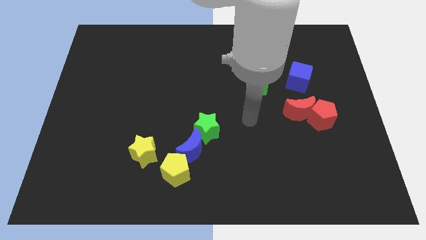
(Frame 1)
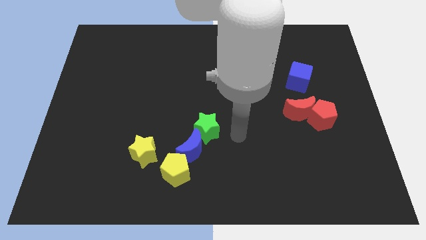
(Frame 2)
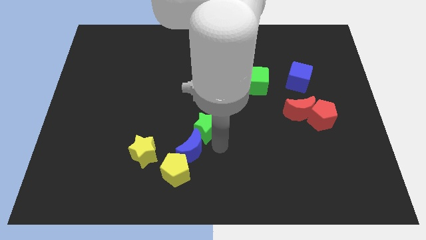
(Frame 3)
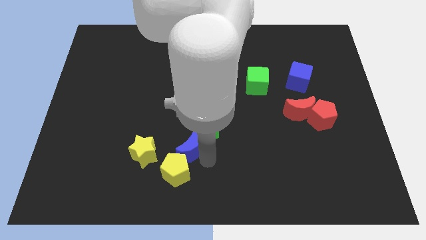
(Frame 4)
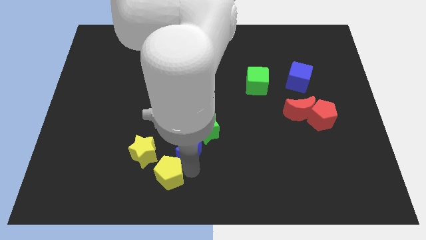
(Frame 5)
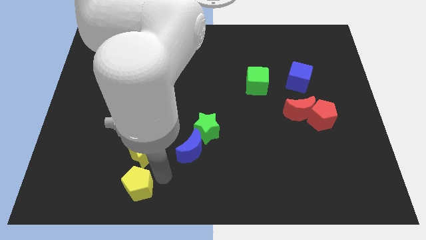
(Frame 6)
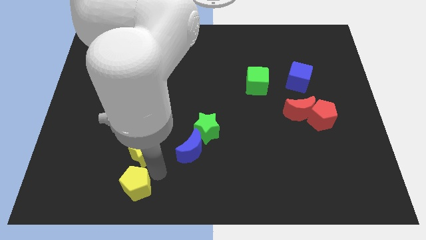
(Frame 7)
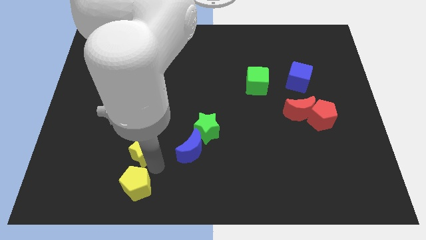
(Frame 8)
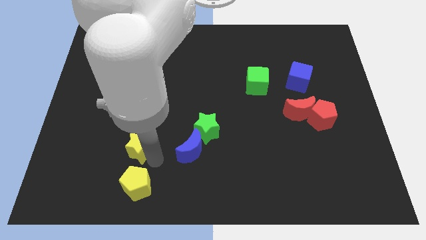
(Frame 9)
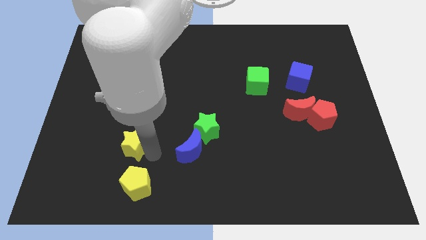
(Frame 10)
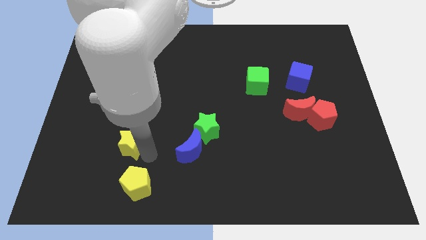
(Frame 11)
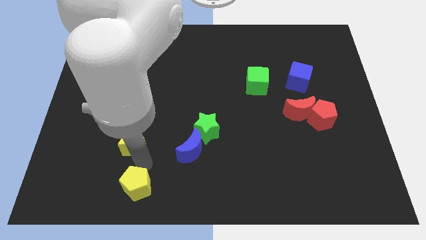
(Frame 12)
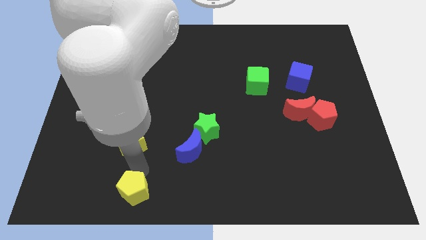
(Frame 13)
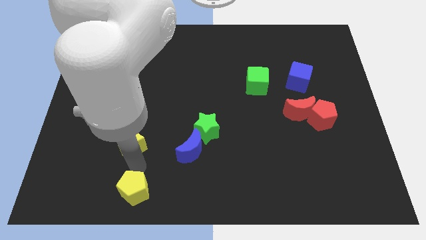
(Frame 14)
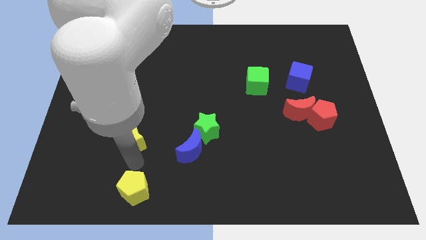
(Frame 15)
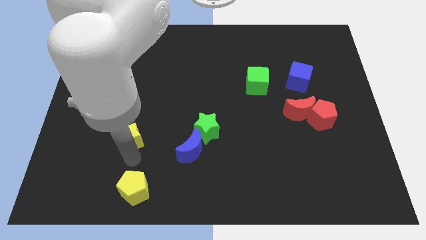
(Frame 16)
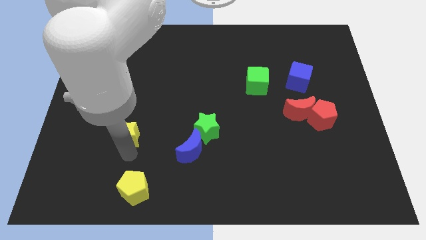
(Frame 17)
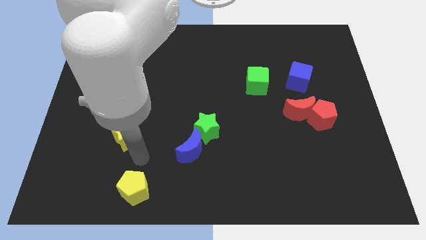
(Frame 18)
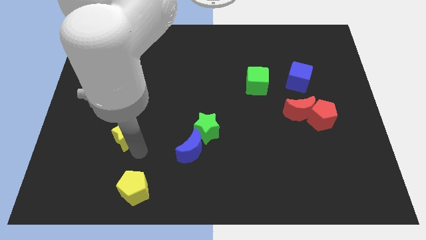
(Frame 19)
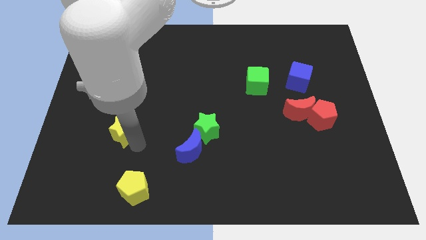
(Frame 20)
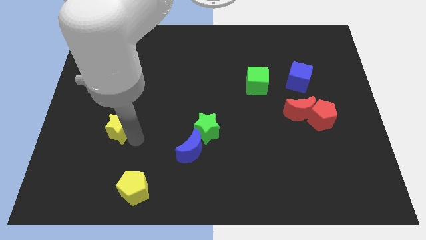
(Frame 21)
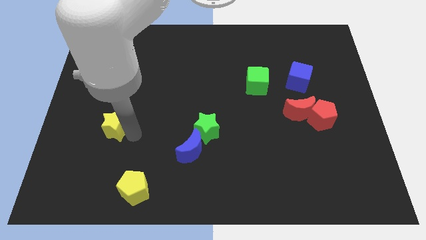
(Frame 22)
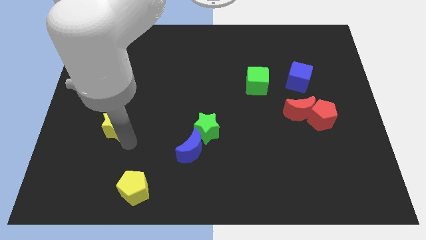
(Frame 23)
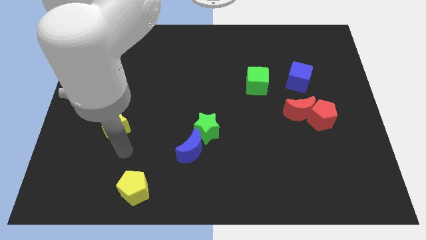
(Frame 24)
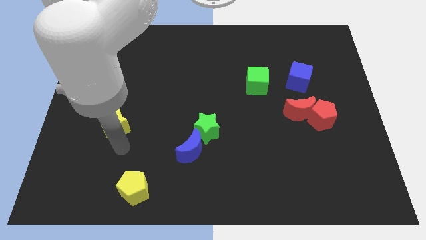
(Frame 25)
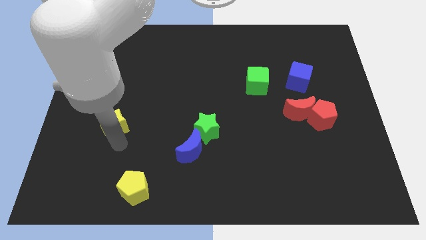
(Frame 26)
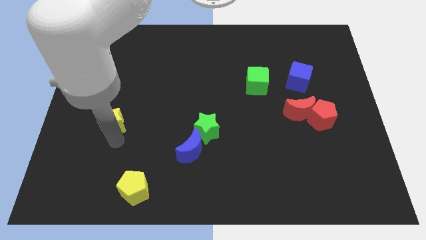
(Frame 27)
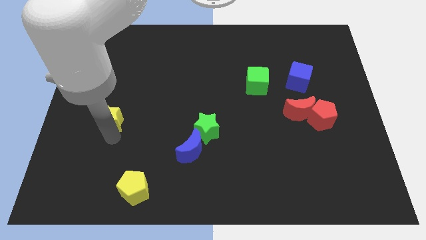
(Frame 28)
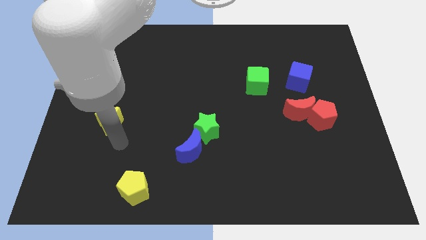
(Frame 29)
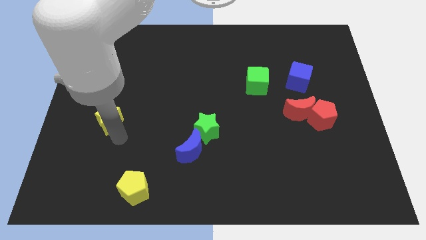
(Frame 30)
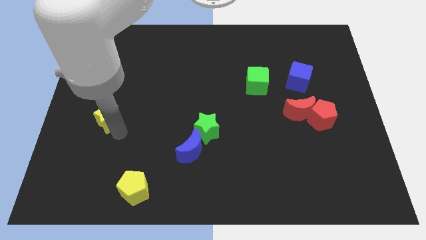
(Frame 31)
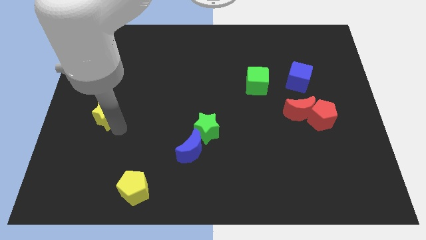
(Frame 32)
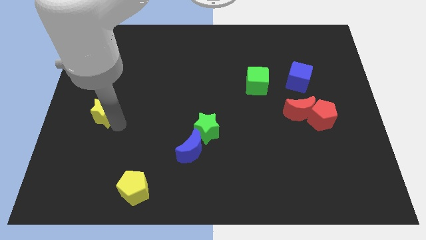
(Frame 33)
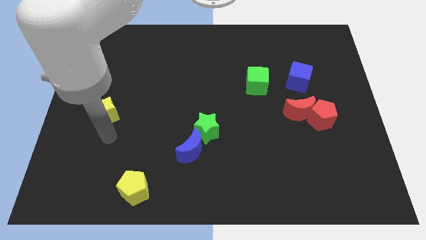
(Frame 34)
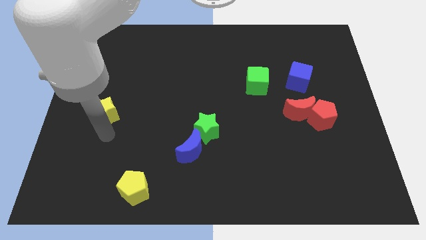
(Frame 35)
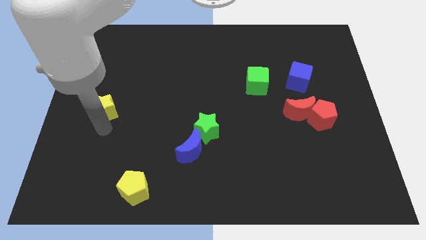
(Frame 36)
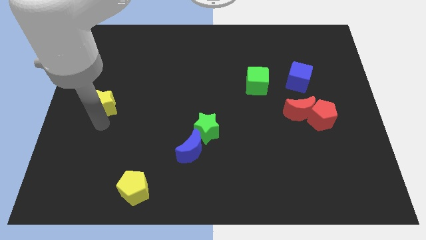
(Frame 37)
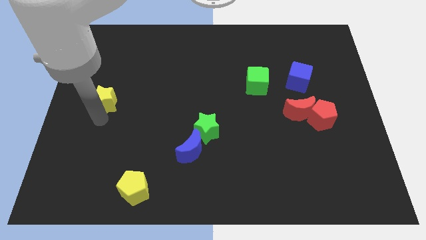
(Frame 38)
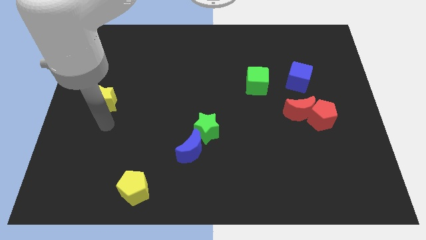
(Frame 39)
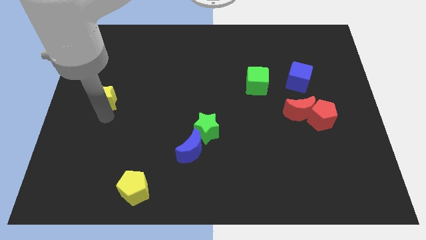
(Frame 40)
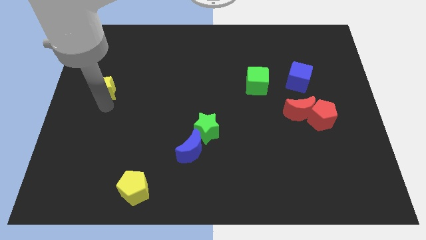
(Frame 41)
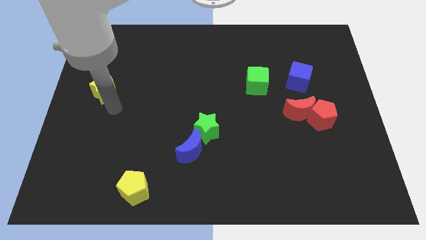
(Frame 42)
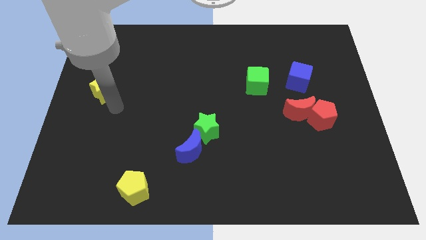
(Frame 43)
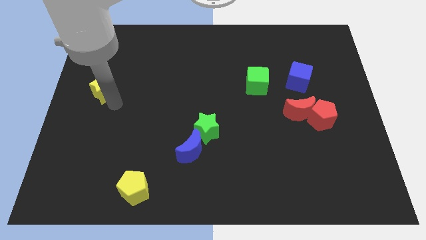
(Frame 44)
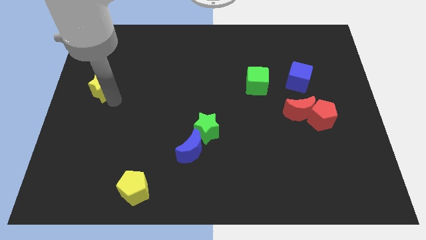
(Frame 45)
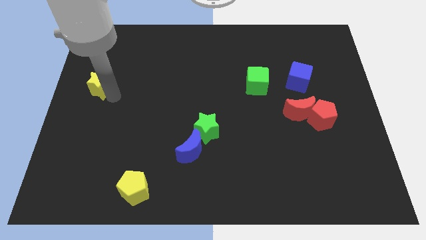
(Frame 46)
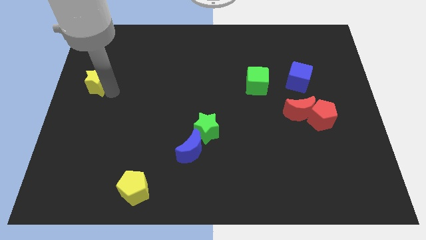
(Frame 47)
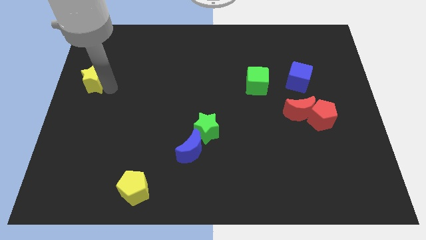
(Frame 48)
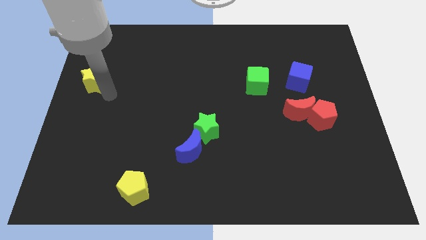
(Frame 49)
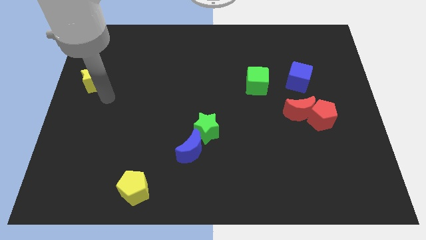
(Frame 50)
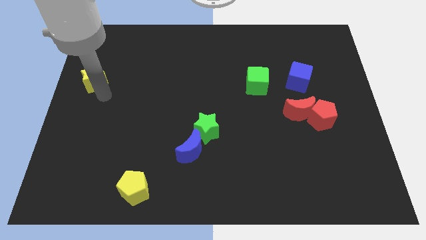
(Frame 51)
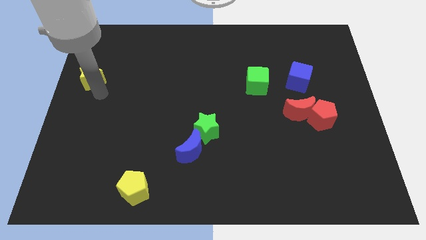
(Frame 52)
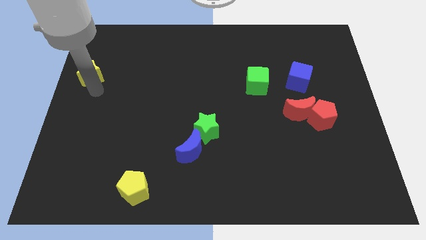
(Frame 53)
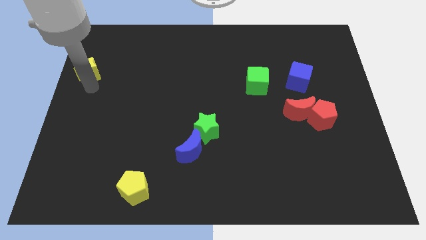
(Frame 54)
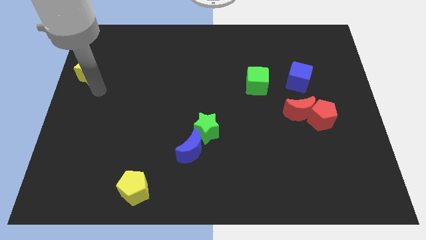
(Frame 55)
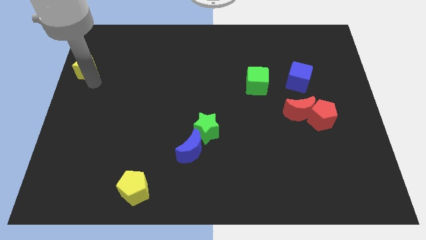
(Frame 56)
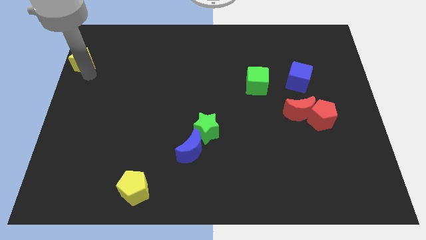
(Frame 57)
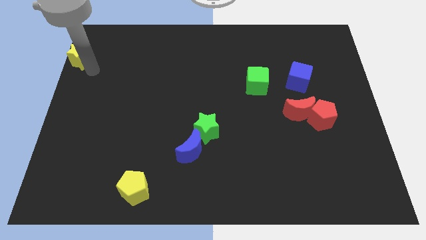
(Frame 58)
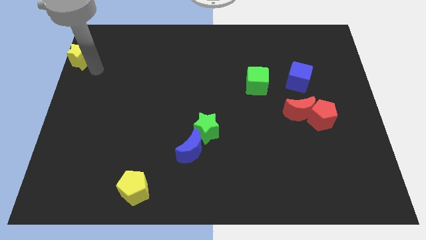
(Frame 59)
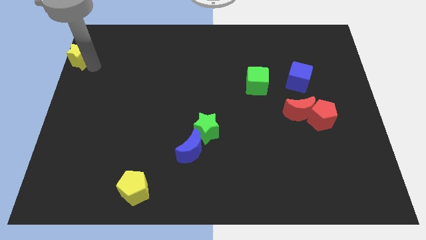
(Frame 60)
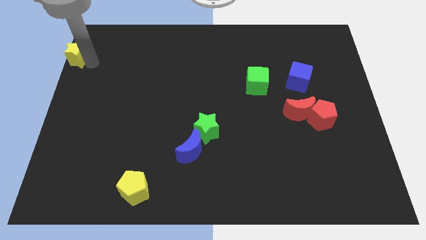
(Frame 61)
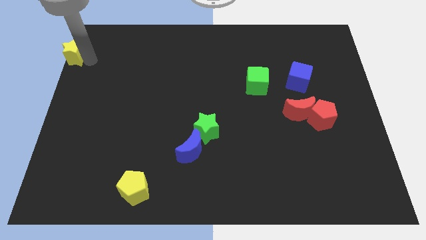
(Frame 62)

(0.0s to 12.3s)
push the yellow star to the upper left corner
